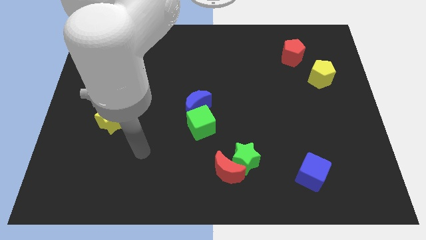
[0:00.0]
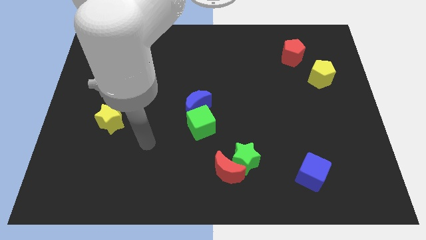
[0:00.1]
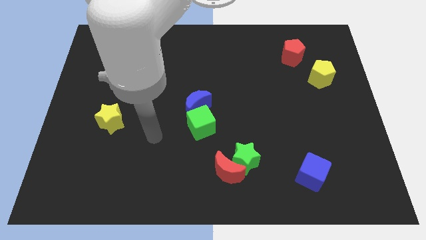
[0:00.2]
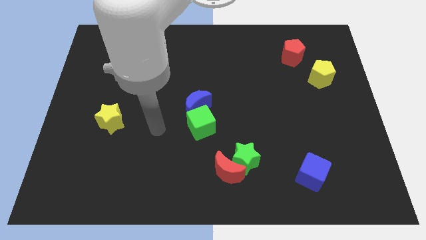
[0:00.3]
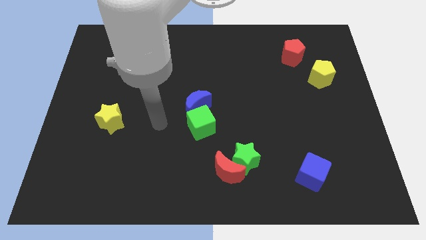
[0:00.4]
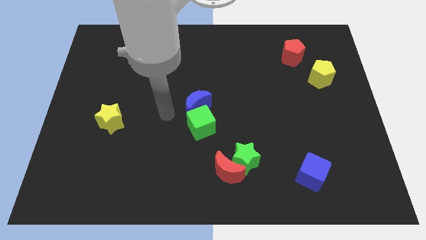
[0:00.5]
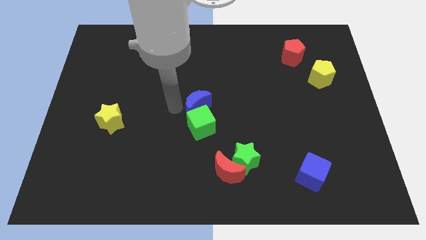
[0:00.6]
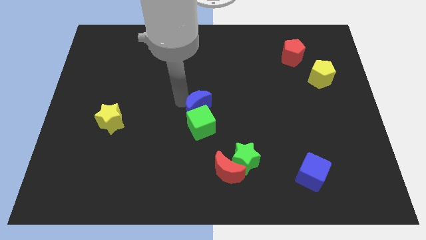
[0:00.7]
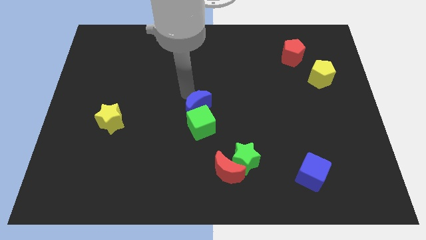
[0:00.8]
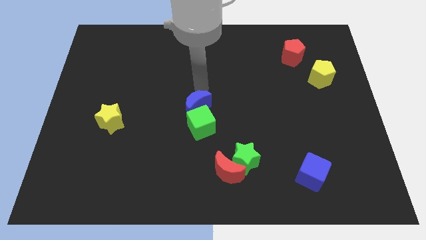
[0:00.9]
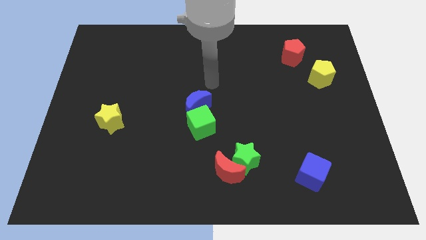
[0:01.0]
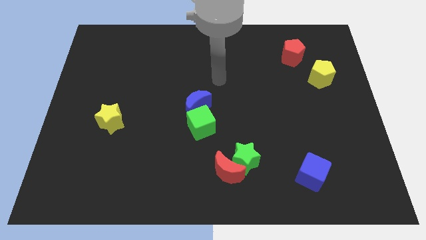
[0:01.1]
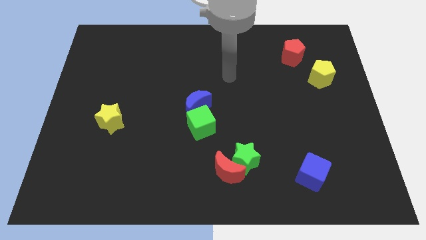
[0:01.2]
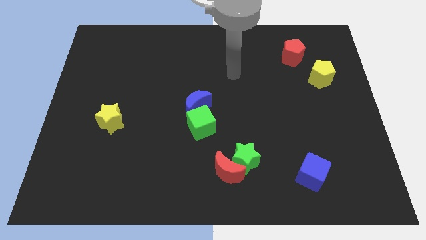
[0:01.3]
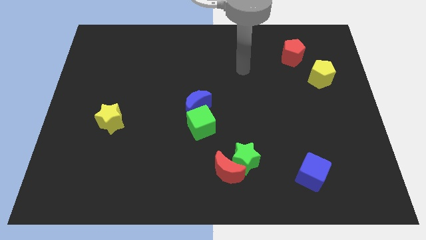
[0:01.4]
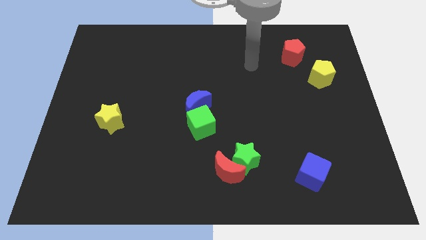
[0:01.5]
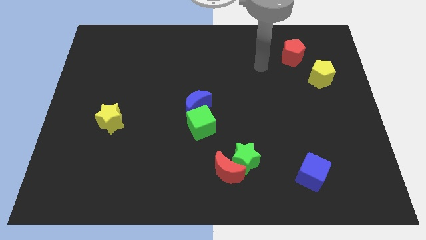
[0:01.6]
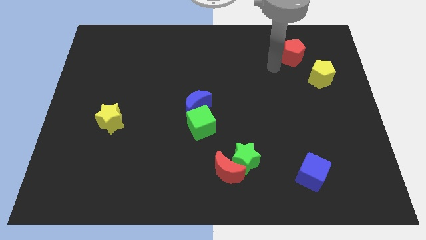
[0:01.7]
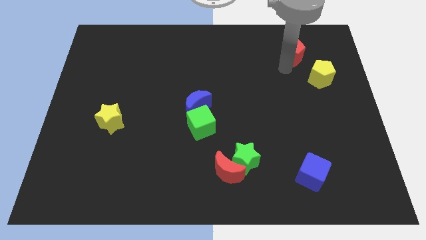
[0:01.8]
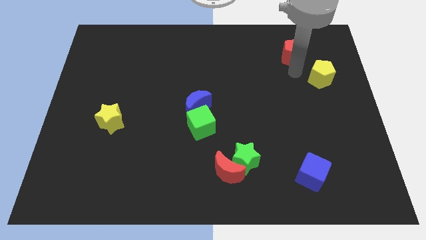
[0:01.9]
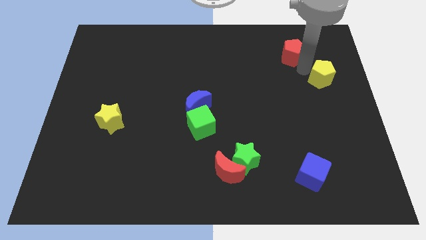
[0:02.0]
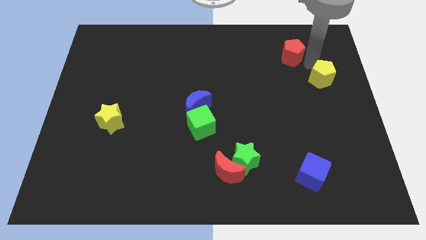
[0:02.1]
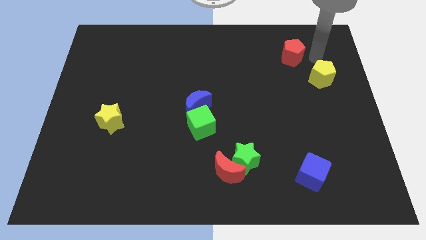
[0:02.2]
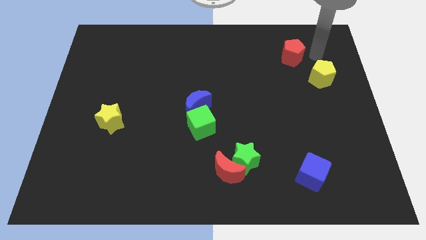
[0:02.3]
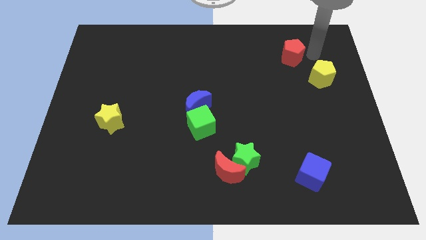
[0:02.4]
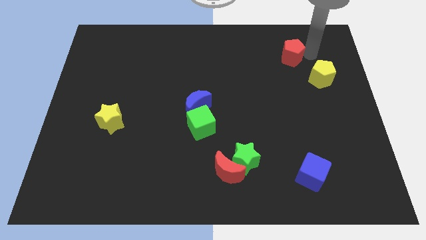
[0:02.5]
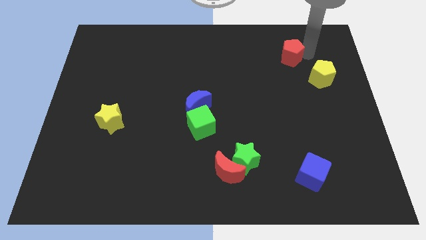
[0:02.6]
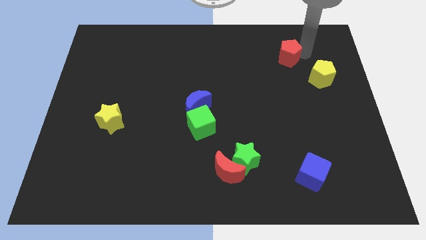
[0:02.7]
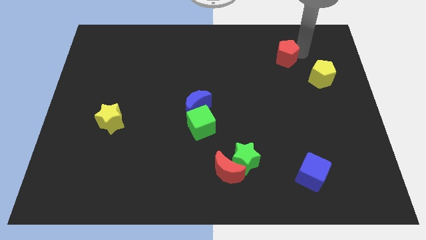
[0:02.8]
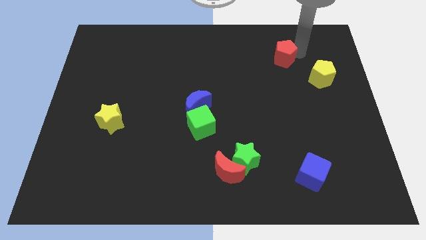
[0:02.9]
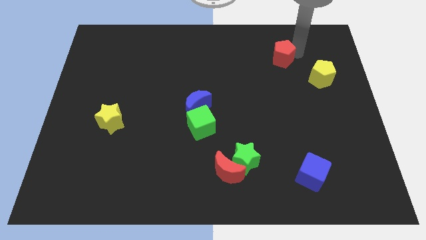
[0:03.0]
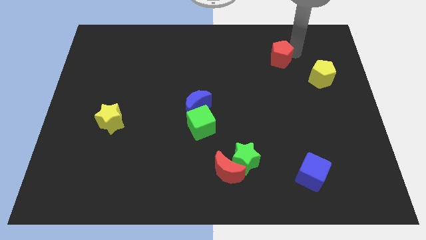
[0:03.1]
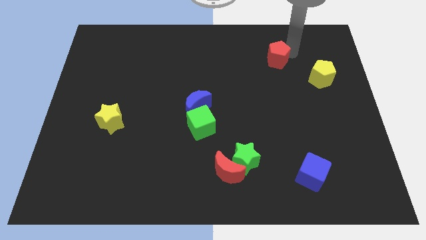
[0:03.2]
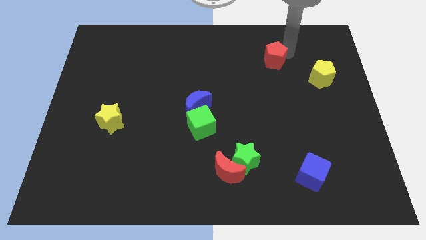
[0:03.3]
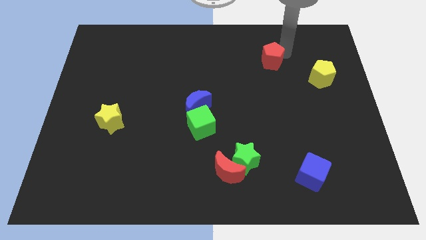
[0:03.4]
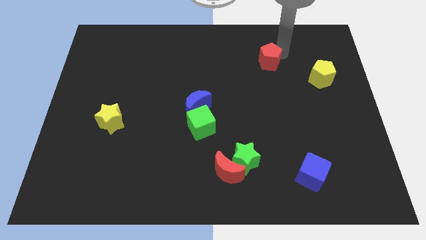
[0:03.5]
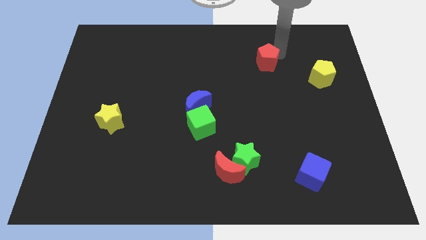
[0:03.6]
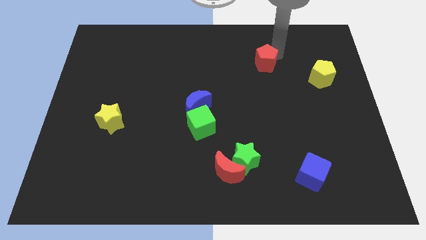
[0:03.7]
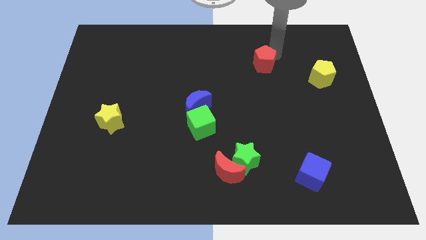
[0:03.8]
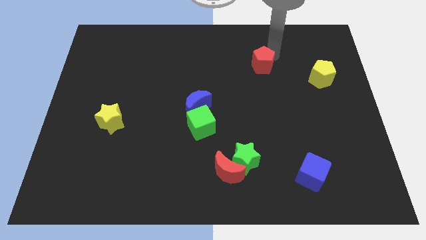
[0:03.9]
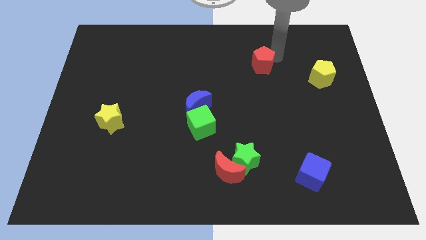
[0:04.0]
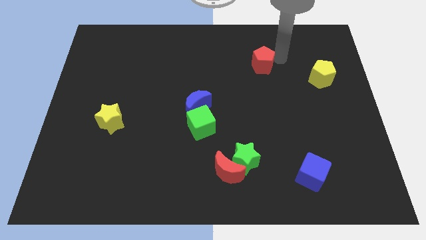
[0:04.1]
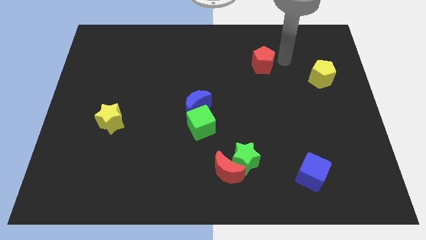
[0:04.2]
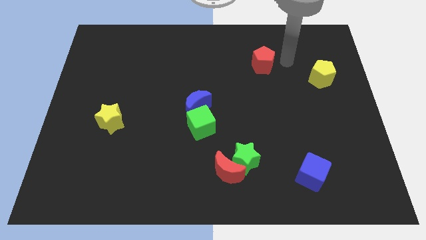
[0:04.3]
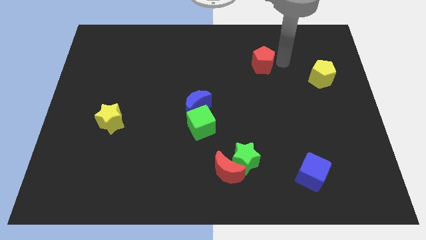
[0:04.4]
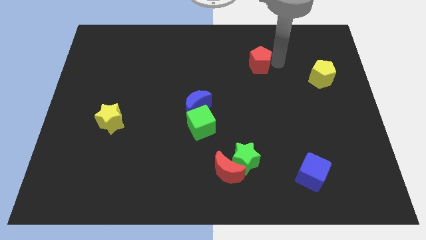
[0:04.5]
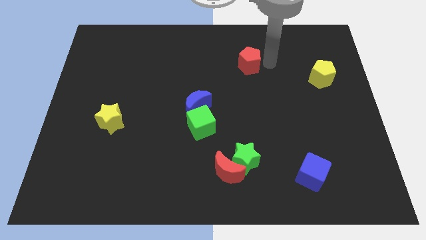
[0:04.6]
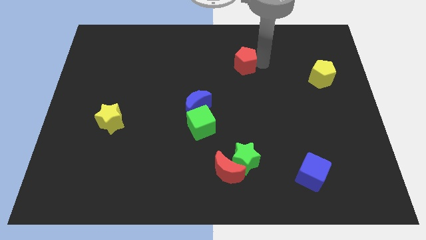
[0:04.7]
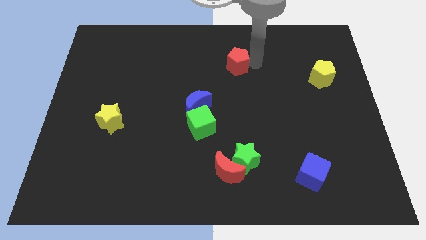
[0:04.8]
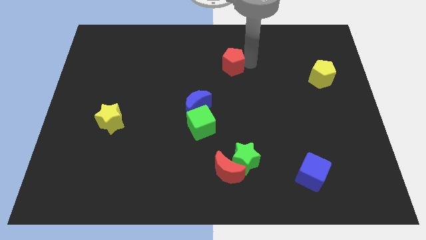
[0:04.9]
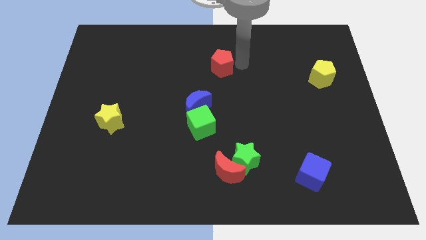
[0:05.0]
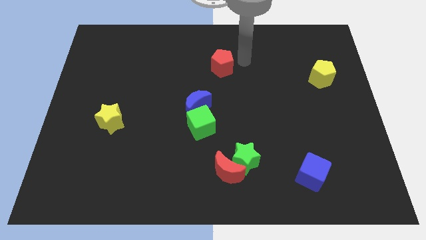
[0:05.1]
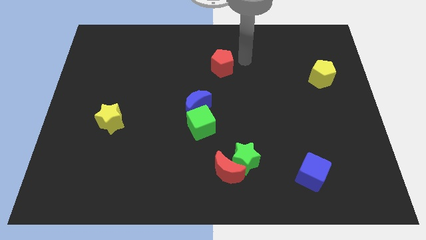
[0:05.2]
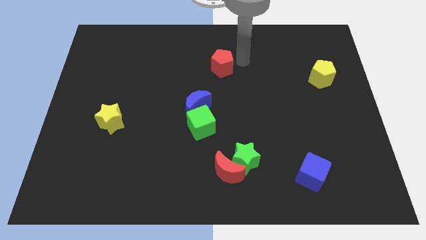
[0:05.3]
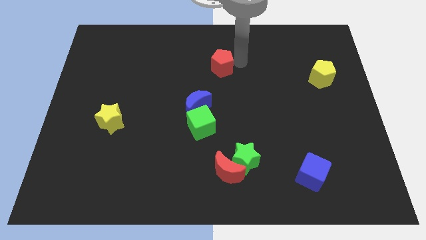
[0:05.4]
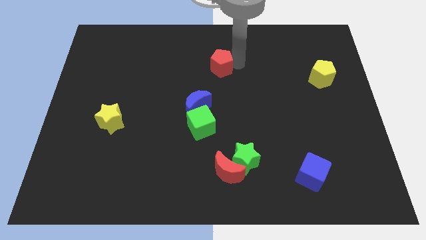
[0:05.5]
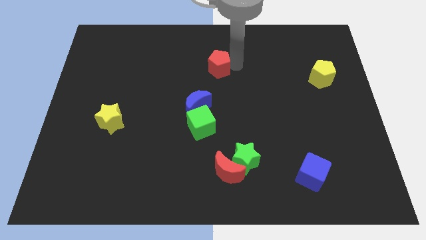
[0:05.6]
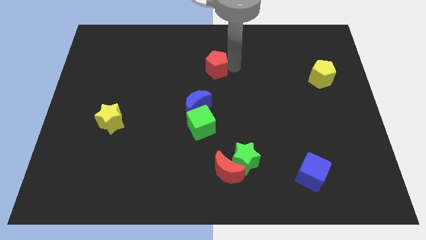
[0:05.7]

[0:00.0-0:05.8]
slide the red pentagon above the blue moon

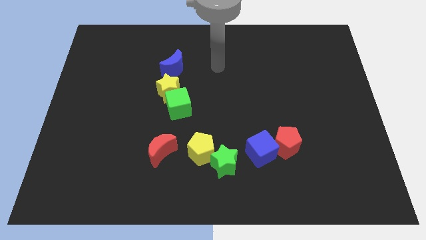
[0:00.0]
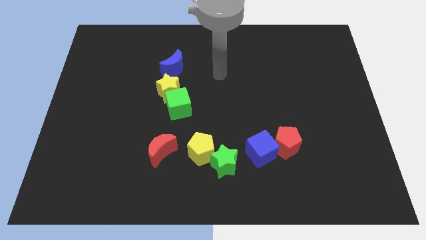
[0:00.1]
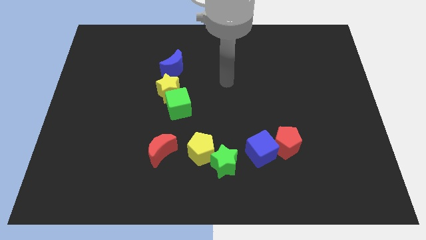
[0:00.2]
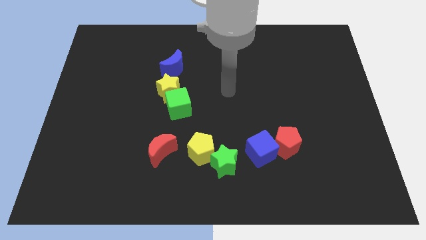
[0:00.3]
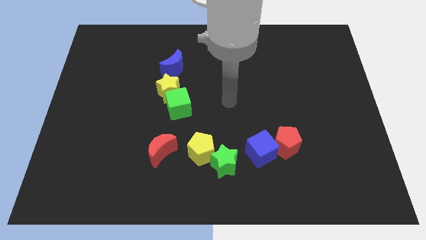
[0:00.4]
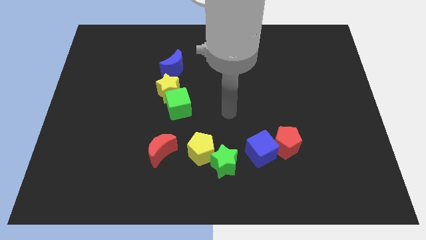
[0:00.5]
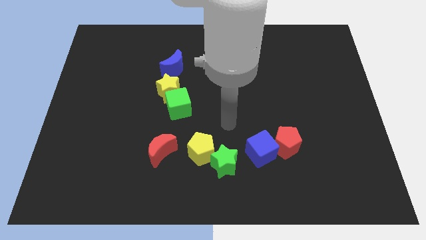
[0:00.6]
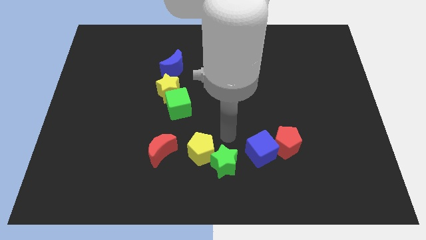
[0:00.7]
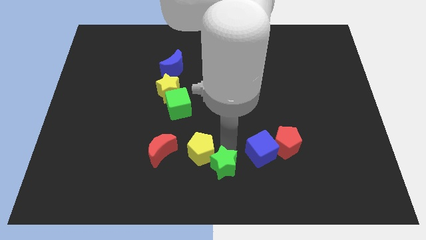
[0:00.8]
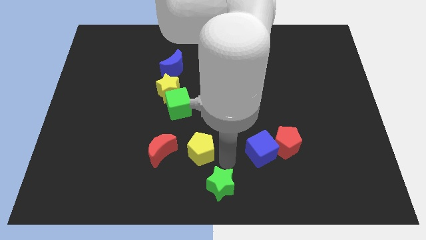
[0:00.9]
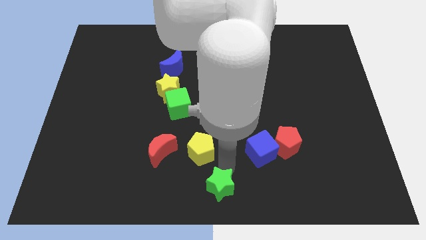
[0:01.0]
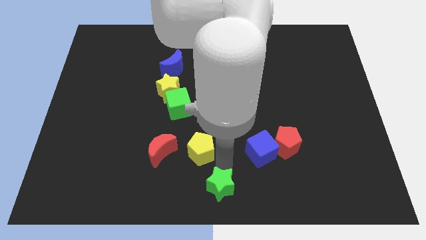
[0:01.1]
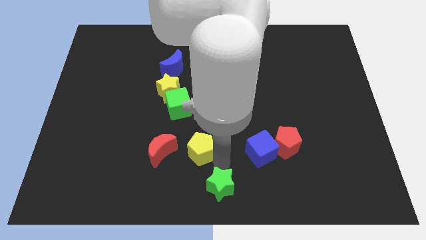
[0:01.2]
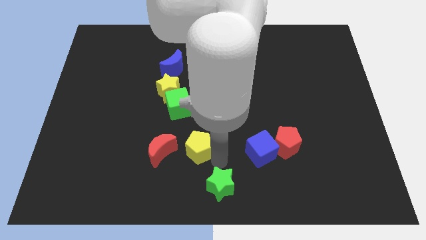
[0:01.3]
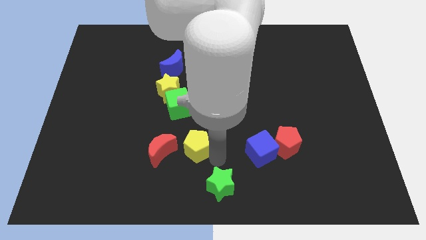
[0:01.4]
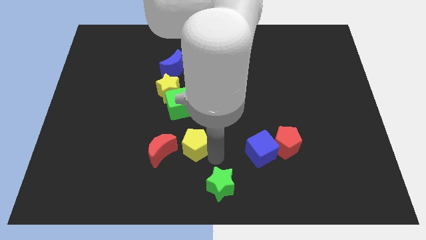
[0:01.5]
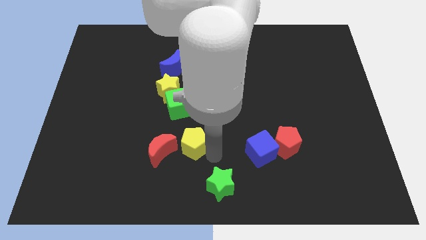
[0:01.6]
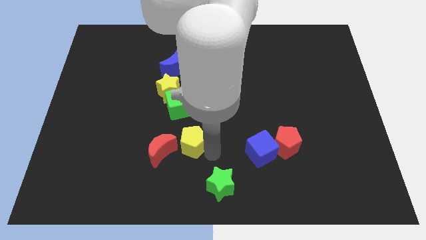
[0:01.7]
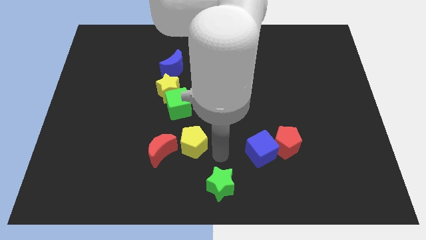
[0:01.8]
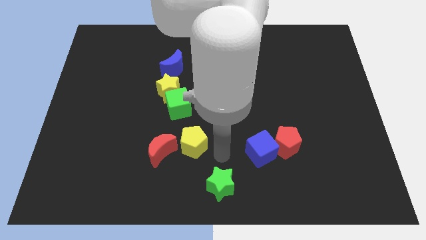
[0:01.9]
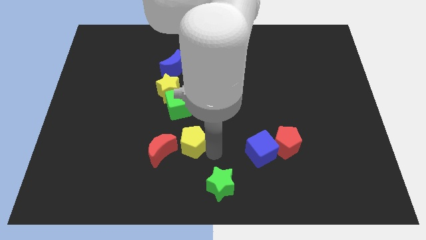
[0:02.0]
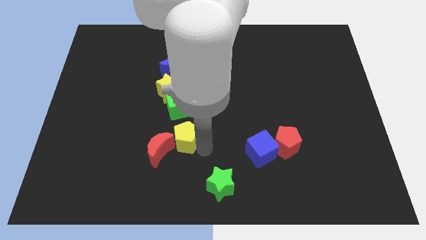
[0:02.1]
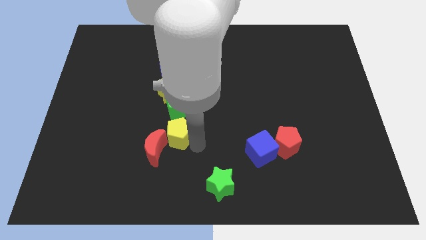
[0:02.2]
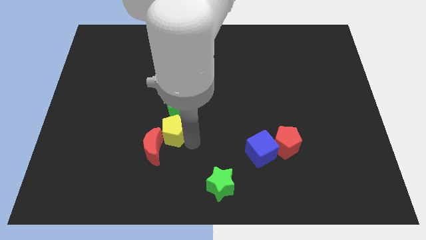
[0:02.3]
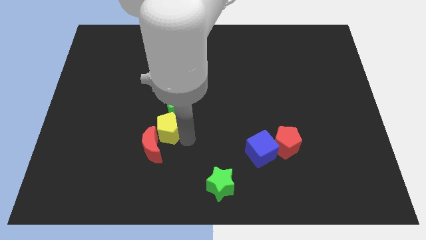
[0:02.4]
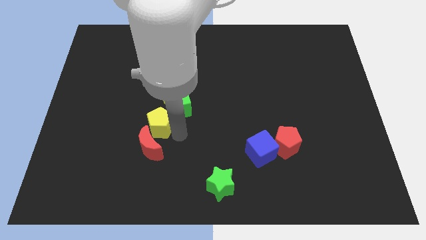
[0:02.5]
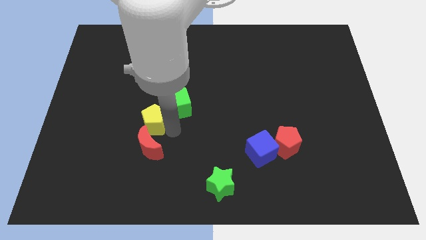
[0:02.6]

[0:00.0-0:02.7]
slide the yellow pentagon to the top left of the red moon
